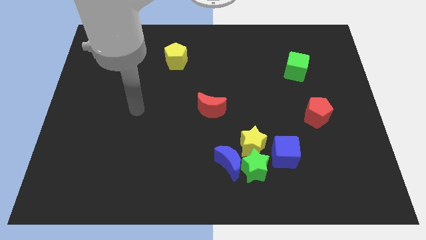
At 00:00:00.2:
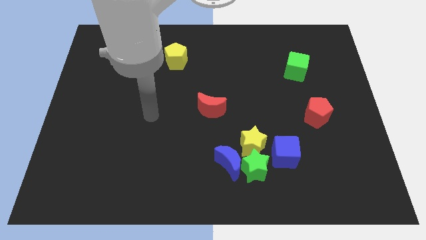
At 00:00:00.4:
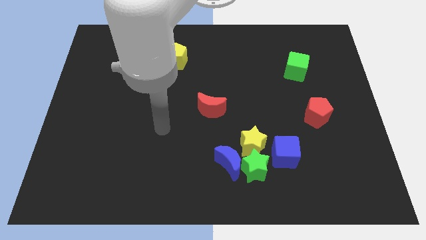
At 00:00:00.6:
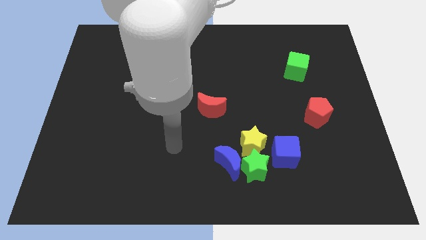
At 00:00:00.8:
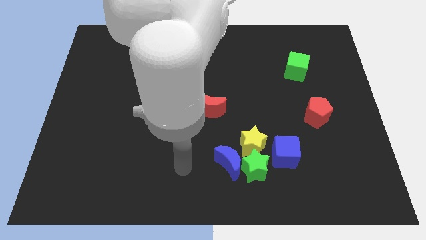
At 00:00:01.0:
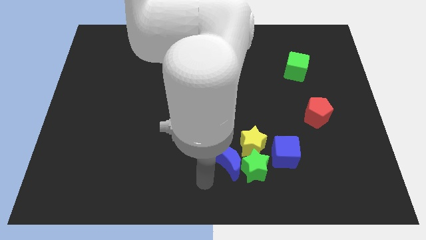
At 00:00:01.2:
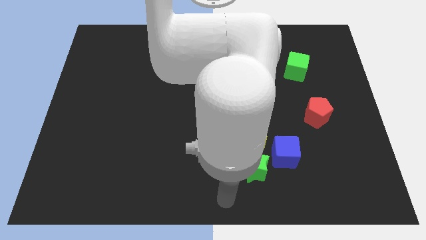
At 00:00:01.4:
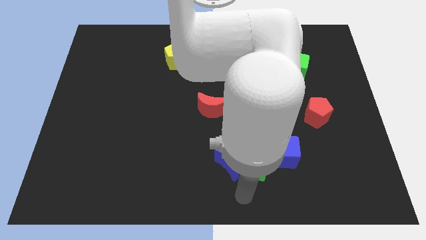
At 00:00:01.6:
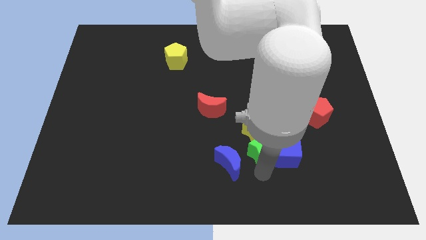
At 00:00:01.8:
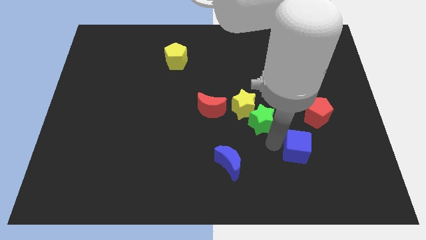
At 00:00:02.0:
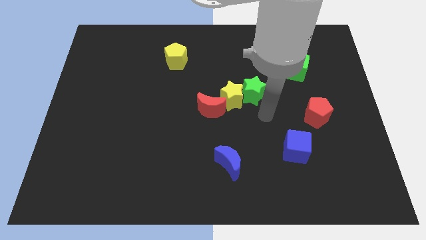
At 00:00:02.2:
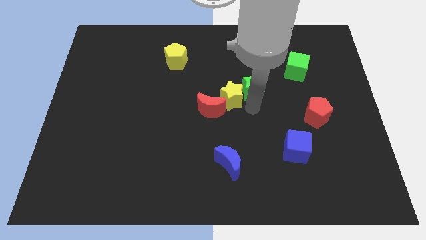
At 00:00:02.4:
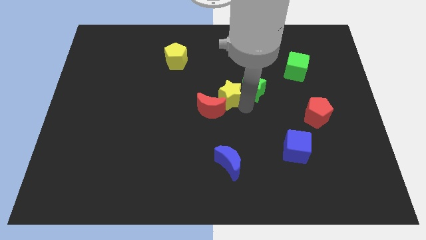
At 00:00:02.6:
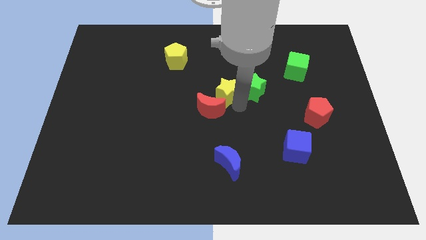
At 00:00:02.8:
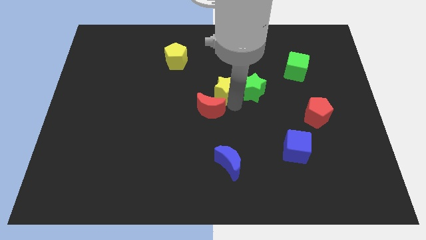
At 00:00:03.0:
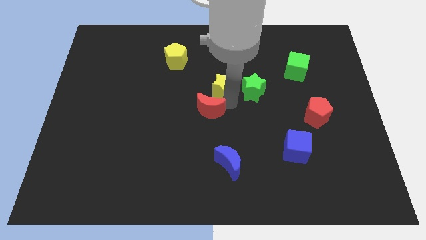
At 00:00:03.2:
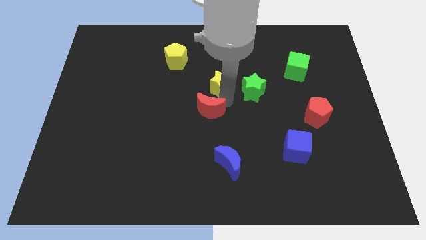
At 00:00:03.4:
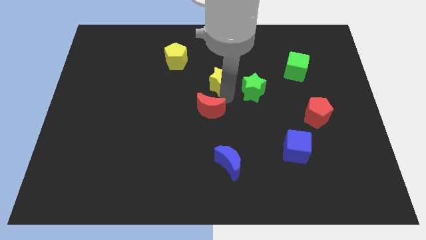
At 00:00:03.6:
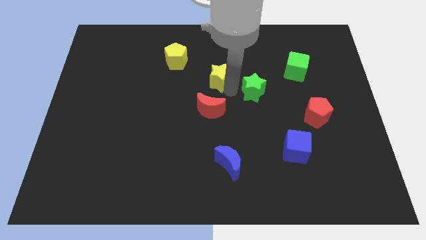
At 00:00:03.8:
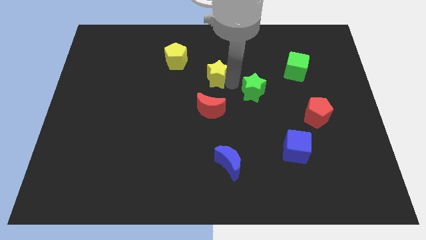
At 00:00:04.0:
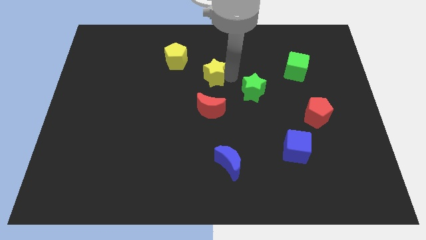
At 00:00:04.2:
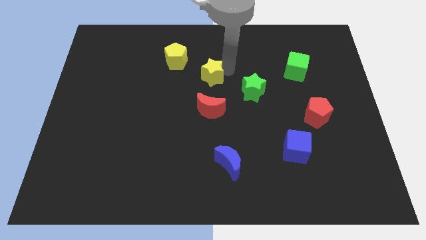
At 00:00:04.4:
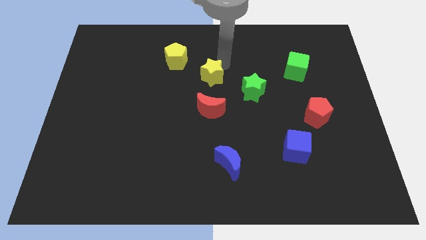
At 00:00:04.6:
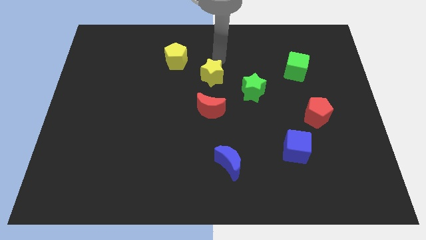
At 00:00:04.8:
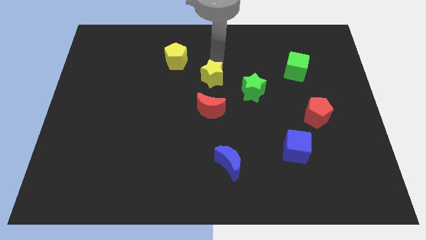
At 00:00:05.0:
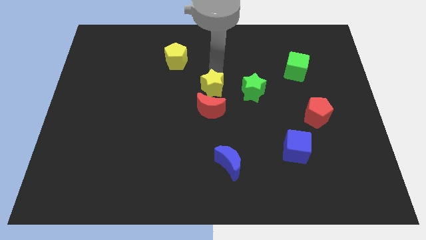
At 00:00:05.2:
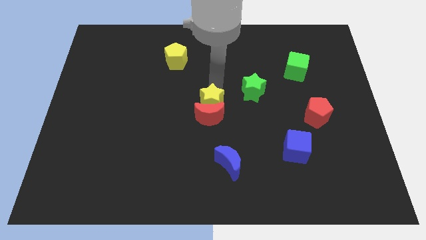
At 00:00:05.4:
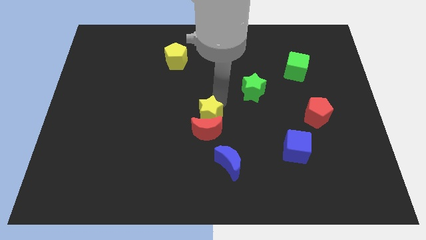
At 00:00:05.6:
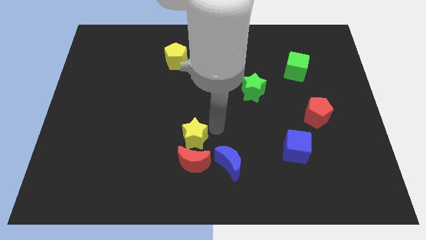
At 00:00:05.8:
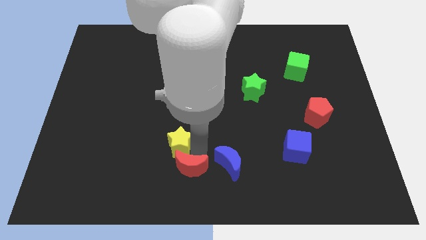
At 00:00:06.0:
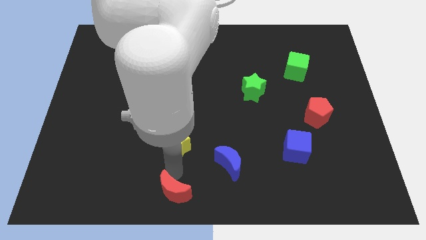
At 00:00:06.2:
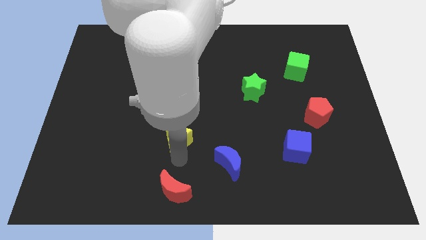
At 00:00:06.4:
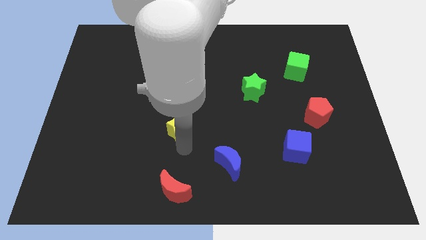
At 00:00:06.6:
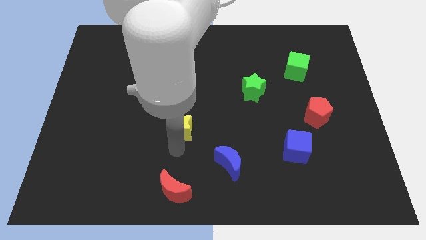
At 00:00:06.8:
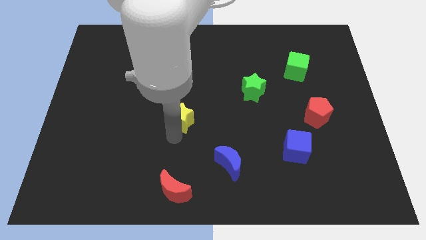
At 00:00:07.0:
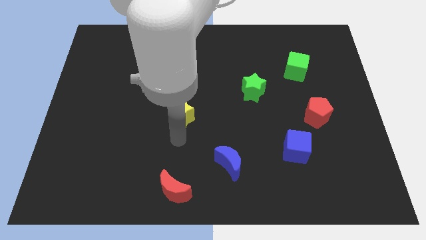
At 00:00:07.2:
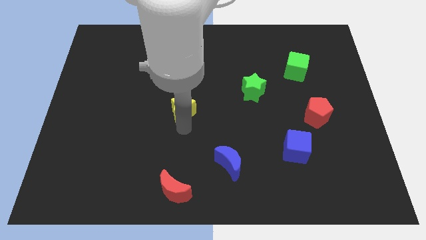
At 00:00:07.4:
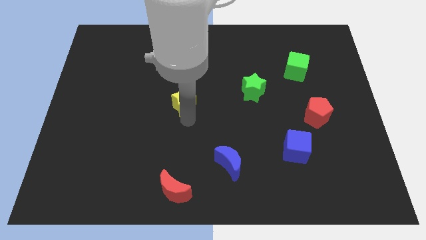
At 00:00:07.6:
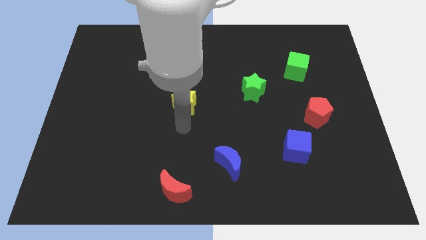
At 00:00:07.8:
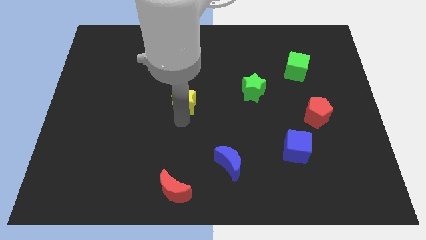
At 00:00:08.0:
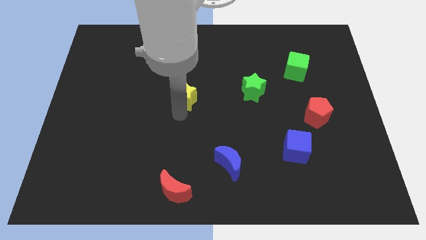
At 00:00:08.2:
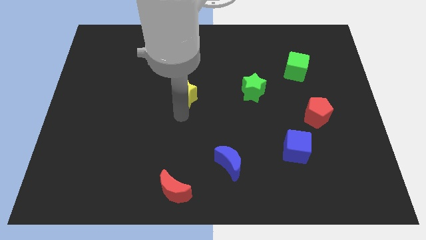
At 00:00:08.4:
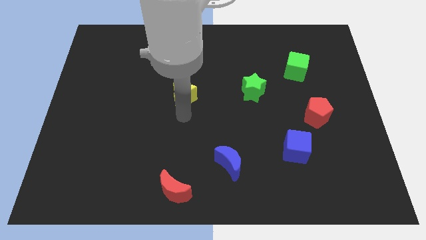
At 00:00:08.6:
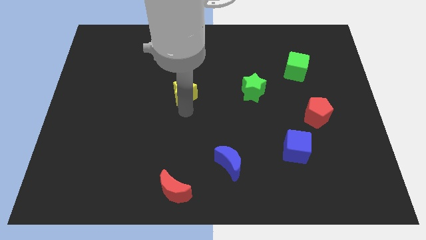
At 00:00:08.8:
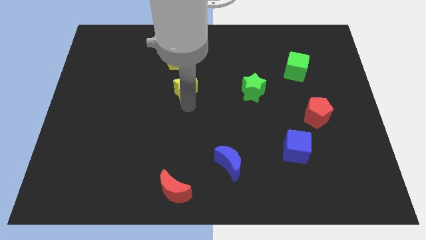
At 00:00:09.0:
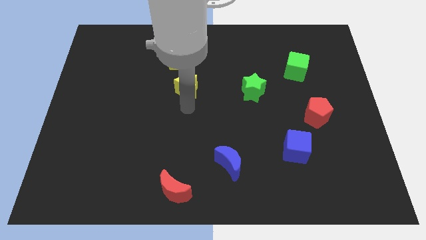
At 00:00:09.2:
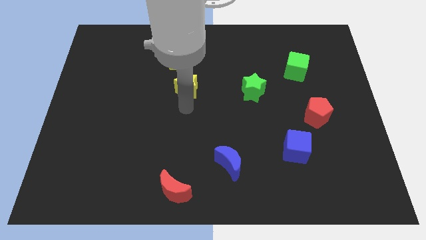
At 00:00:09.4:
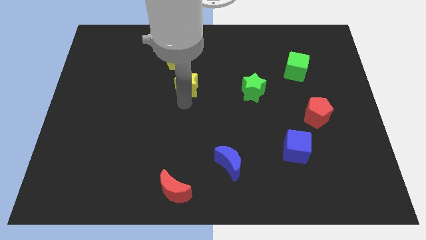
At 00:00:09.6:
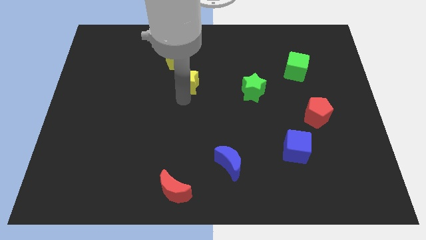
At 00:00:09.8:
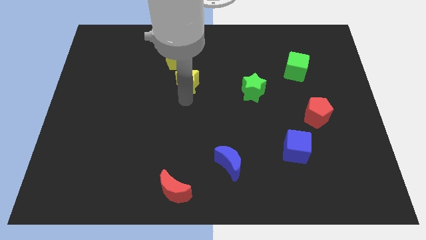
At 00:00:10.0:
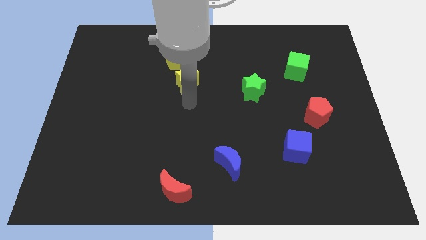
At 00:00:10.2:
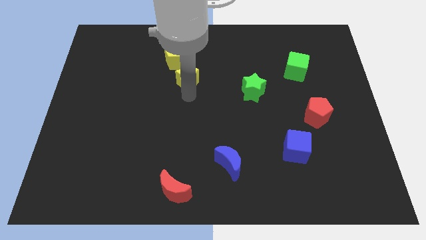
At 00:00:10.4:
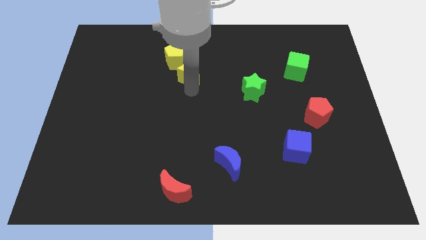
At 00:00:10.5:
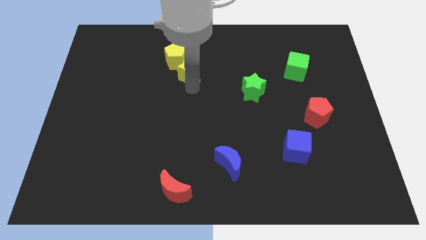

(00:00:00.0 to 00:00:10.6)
put the yellow star towards the yellow pentagon

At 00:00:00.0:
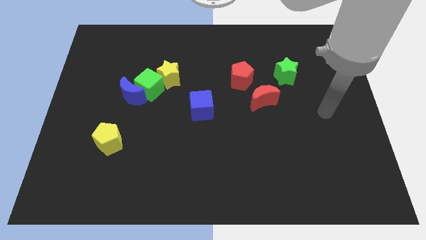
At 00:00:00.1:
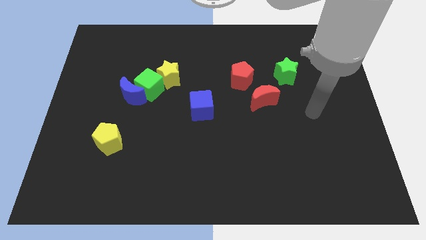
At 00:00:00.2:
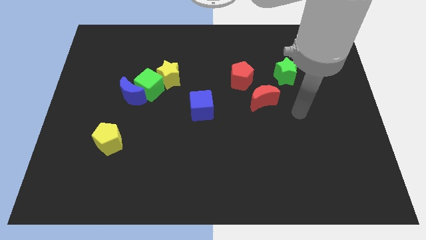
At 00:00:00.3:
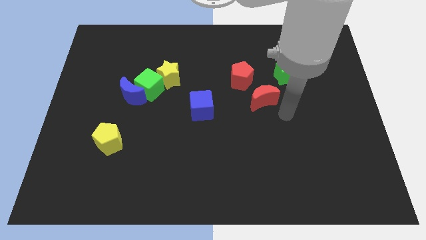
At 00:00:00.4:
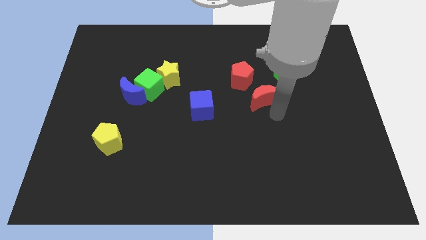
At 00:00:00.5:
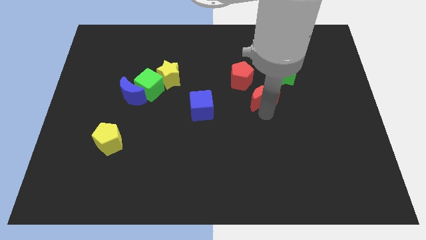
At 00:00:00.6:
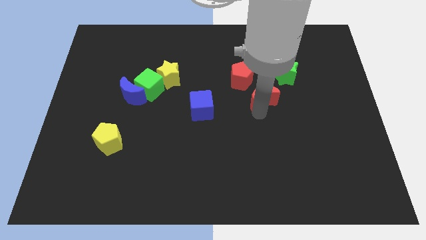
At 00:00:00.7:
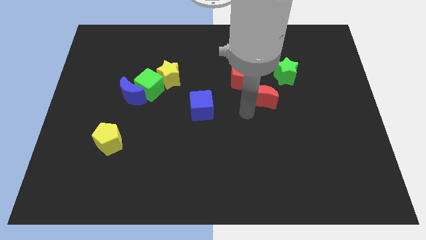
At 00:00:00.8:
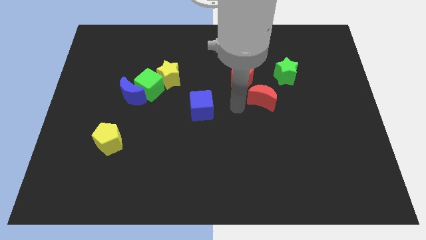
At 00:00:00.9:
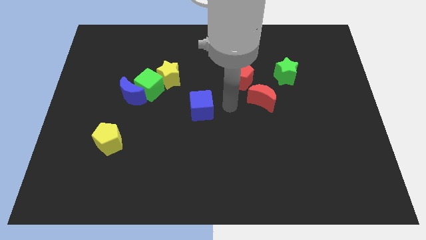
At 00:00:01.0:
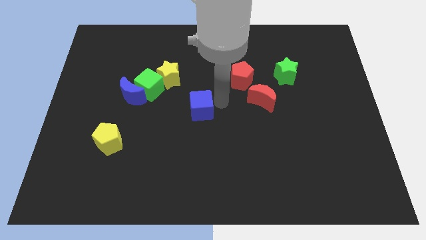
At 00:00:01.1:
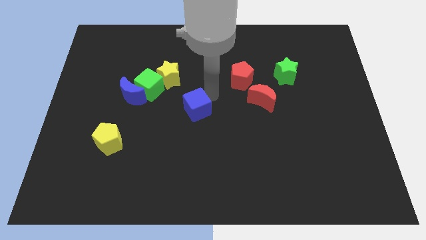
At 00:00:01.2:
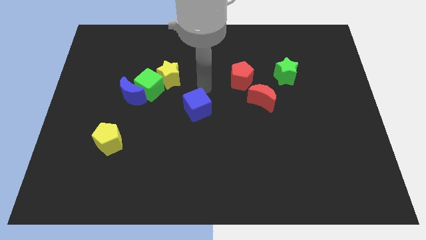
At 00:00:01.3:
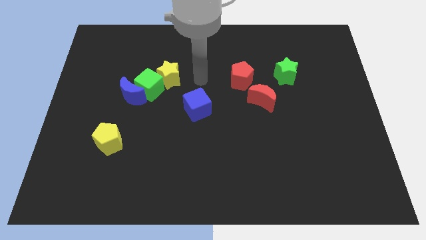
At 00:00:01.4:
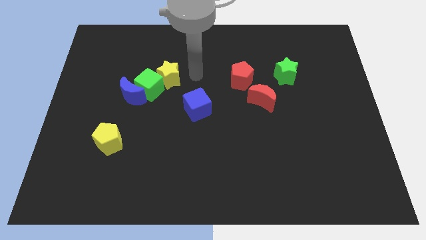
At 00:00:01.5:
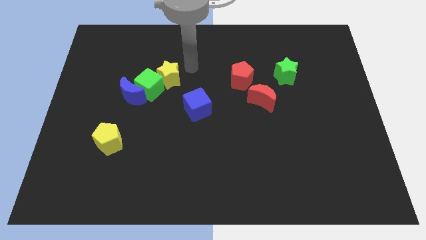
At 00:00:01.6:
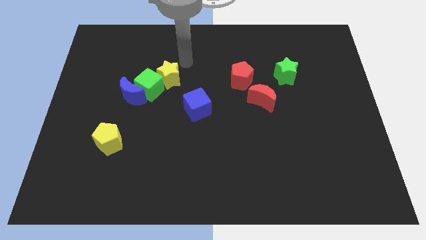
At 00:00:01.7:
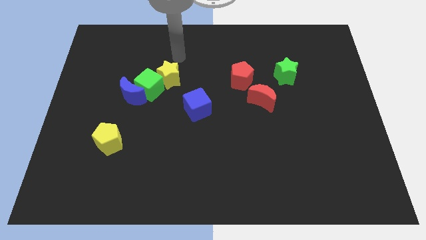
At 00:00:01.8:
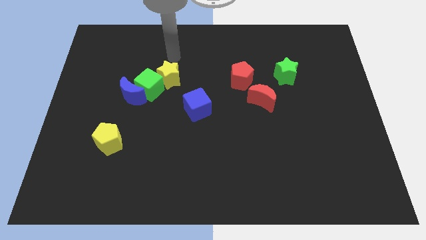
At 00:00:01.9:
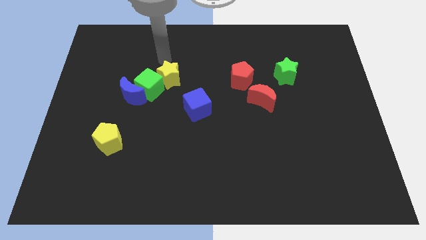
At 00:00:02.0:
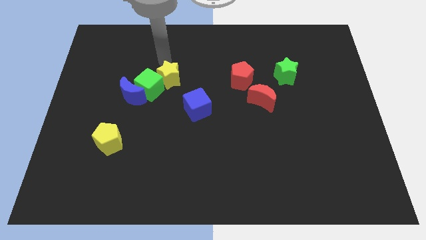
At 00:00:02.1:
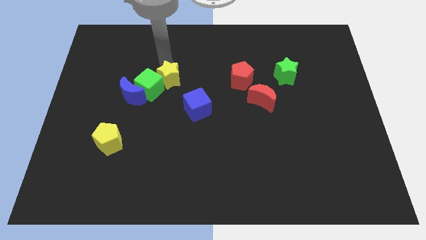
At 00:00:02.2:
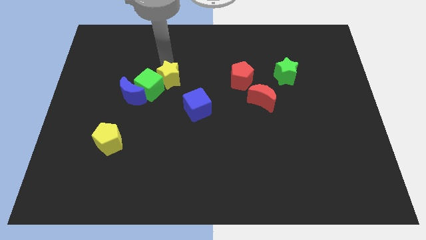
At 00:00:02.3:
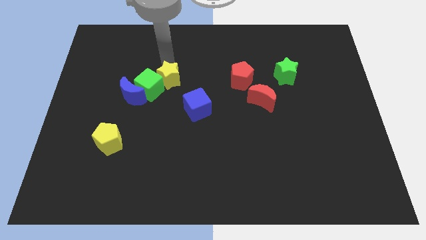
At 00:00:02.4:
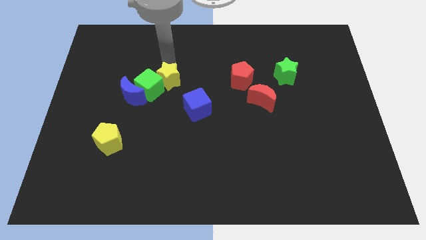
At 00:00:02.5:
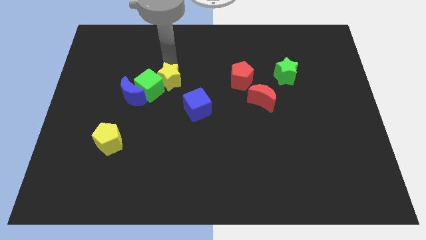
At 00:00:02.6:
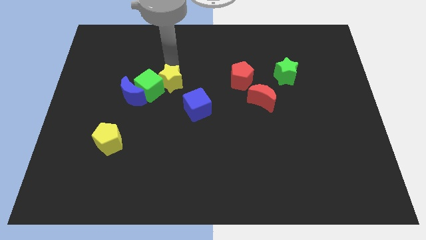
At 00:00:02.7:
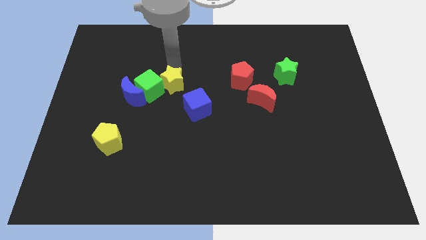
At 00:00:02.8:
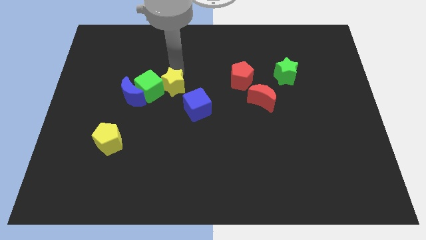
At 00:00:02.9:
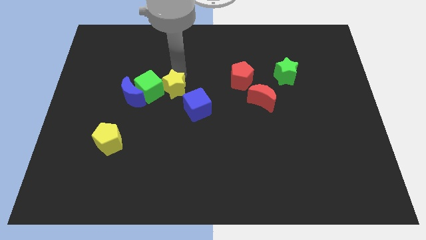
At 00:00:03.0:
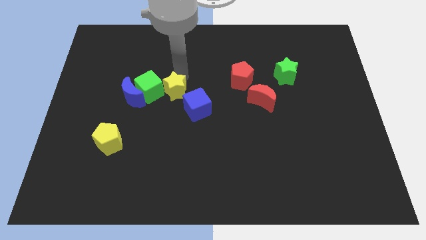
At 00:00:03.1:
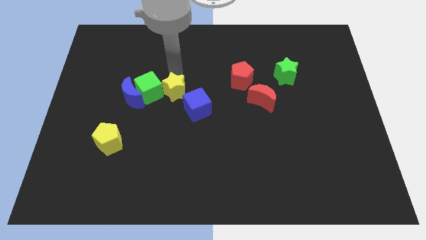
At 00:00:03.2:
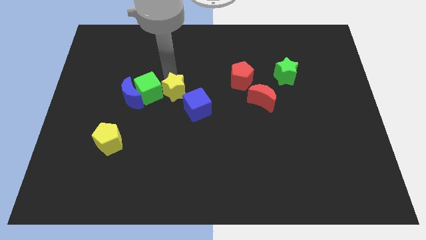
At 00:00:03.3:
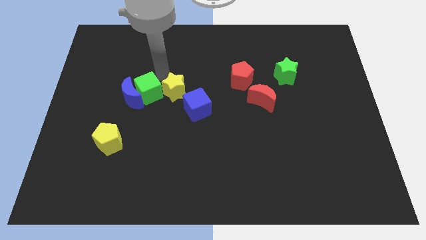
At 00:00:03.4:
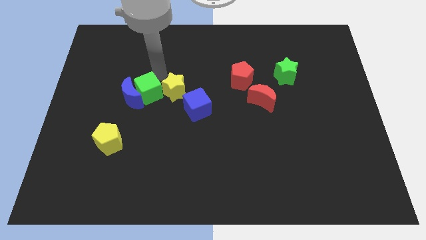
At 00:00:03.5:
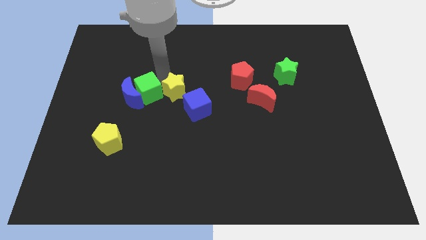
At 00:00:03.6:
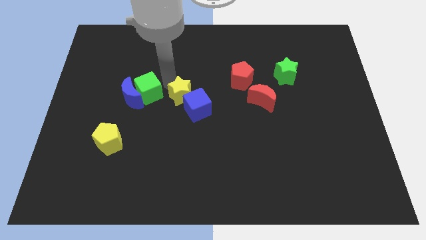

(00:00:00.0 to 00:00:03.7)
slide the yellow star close to the blue cube
